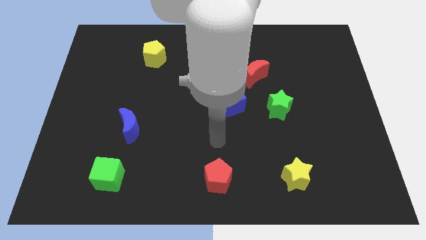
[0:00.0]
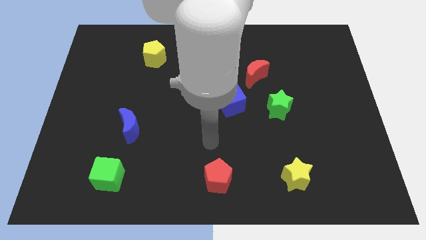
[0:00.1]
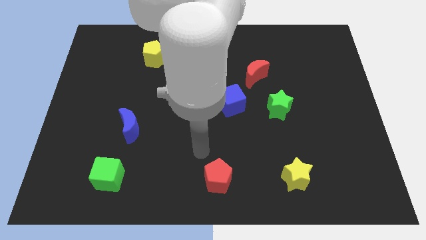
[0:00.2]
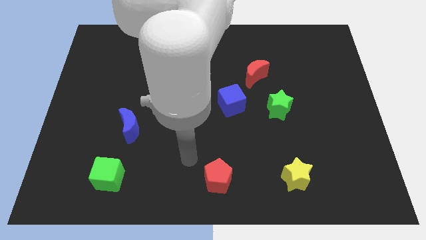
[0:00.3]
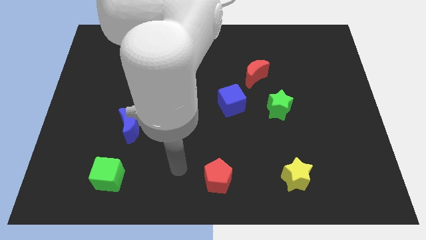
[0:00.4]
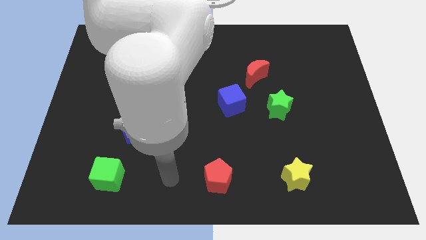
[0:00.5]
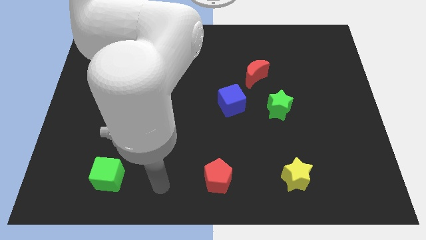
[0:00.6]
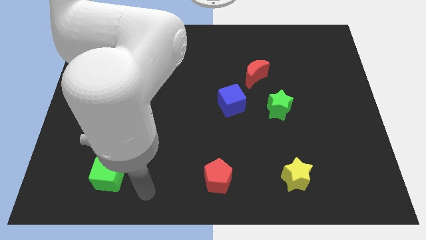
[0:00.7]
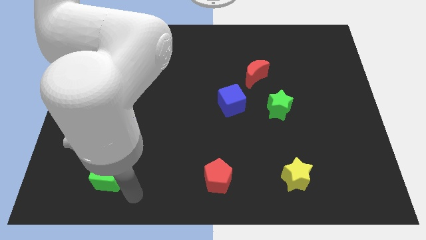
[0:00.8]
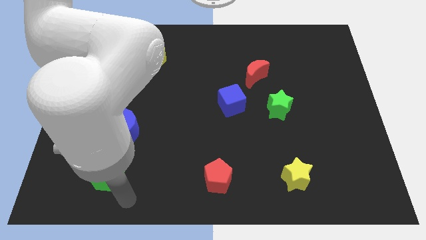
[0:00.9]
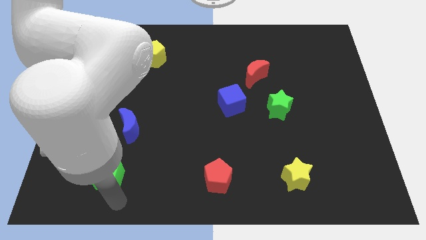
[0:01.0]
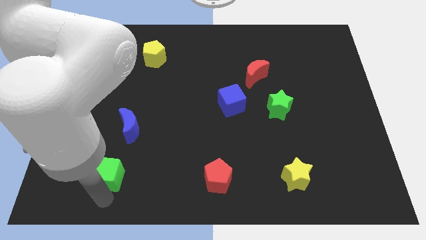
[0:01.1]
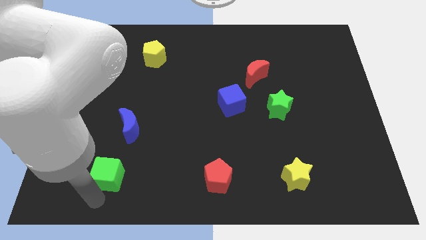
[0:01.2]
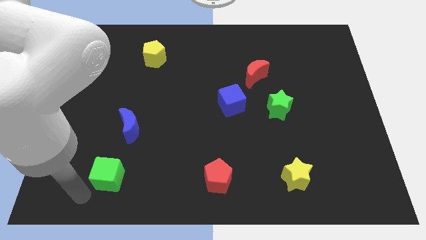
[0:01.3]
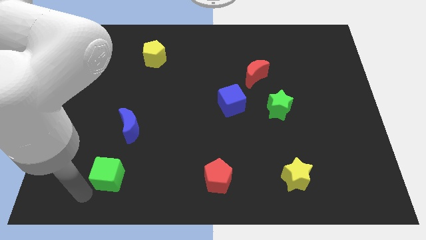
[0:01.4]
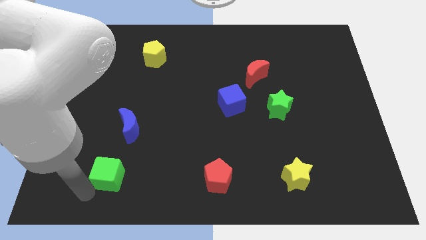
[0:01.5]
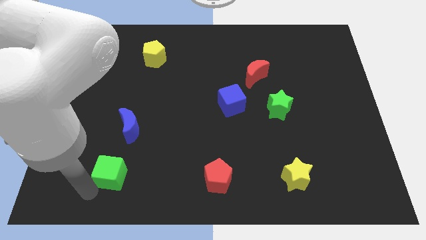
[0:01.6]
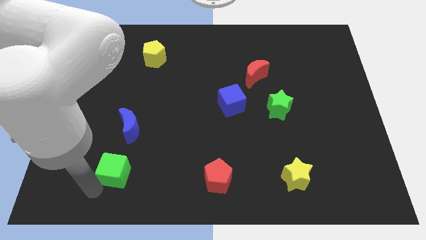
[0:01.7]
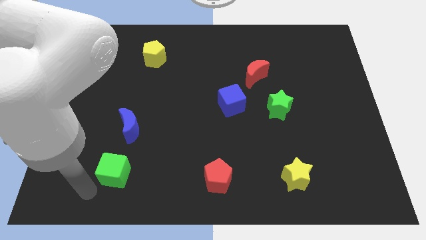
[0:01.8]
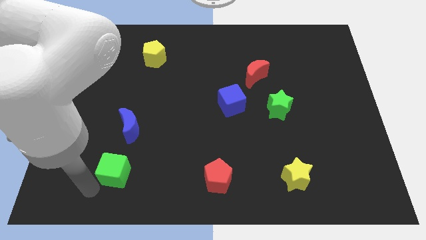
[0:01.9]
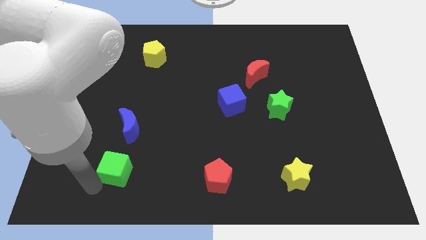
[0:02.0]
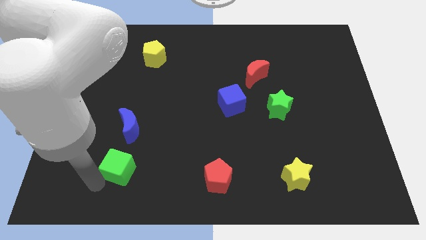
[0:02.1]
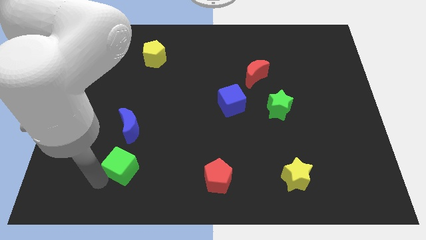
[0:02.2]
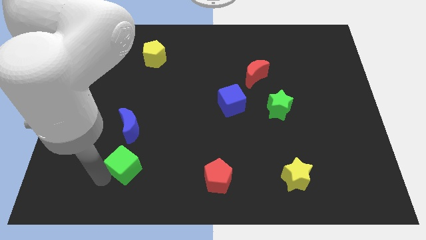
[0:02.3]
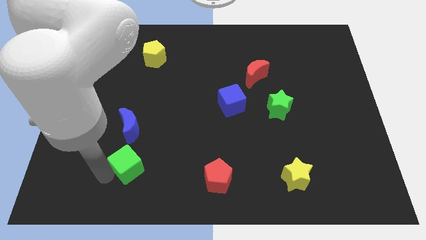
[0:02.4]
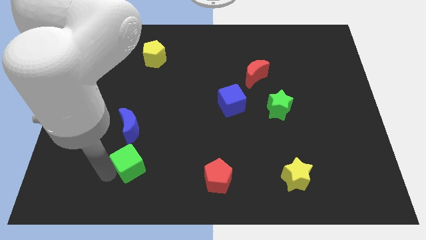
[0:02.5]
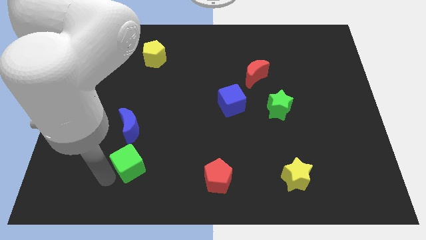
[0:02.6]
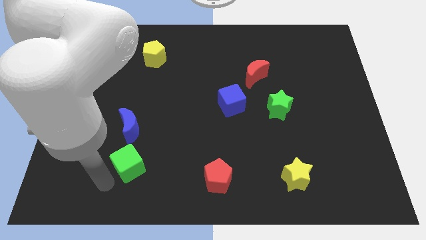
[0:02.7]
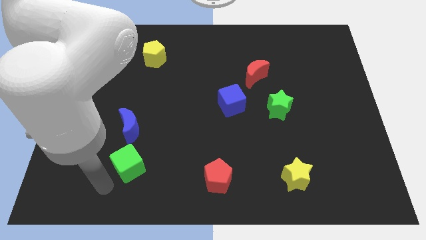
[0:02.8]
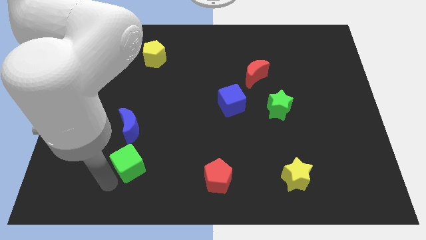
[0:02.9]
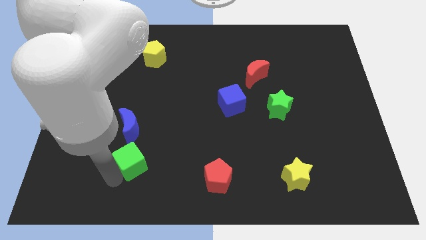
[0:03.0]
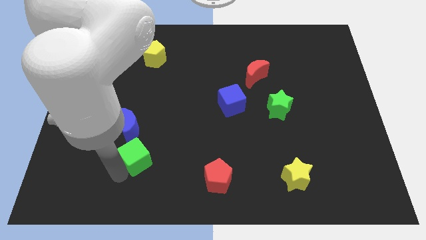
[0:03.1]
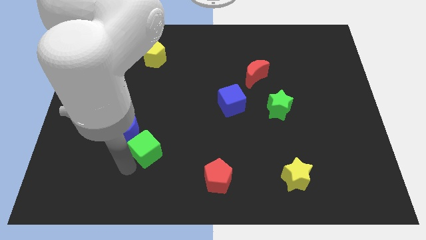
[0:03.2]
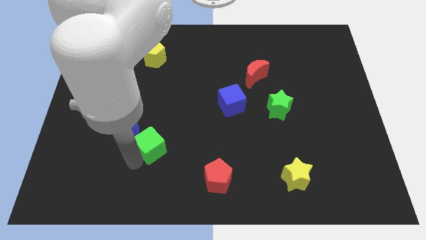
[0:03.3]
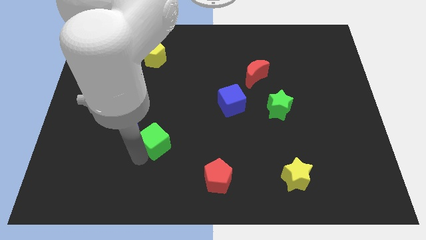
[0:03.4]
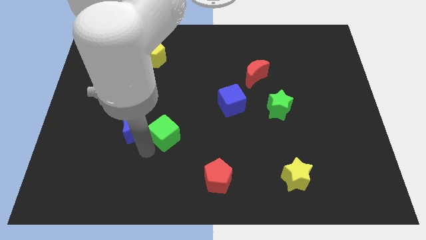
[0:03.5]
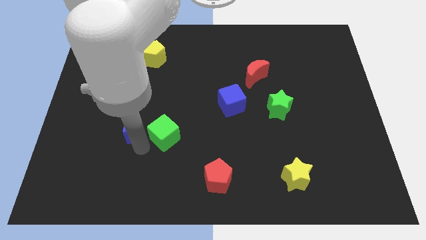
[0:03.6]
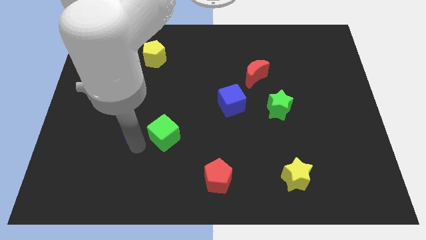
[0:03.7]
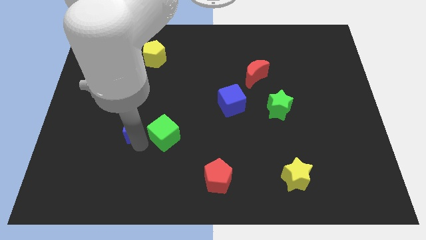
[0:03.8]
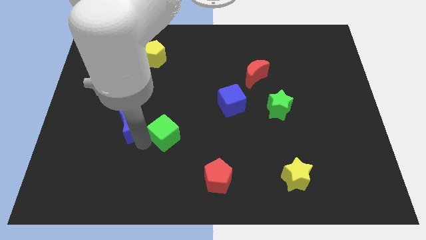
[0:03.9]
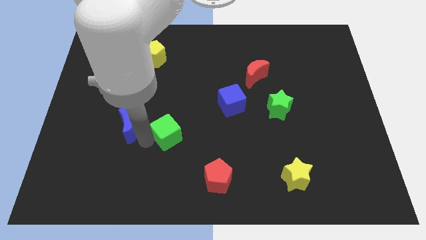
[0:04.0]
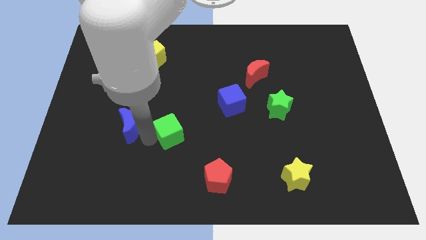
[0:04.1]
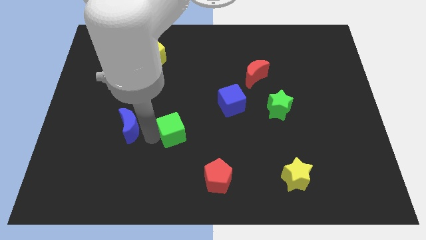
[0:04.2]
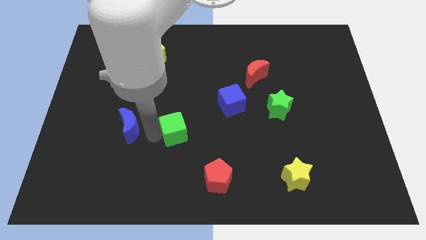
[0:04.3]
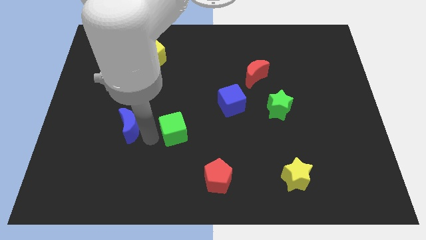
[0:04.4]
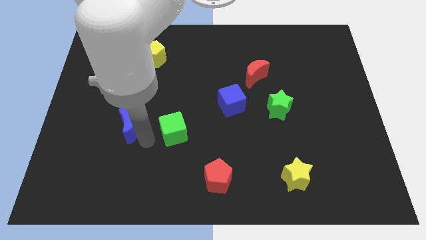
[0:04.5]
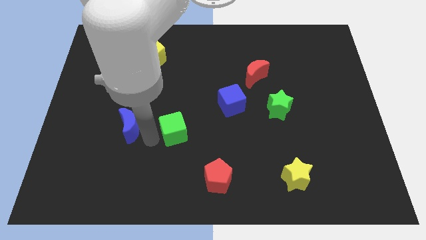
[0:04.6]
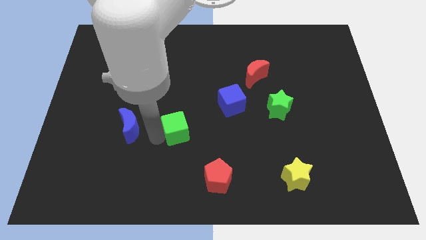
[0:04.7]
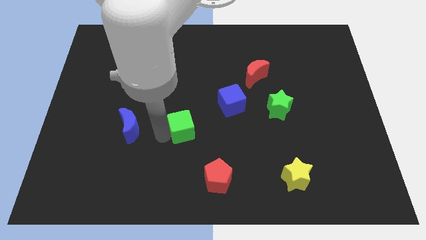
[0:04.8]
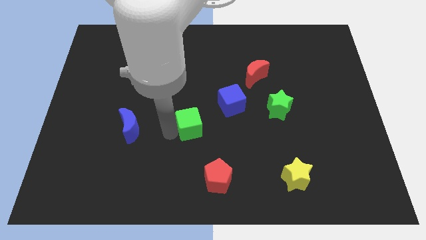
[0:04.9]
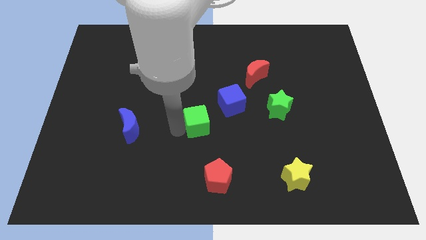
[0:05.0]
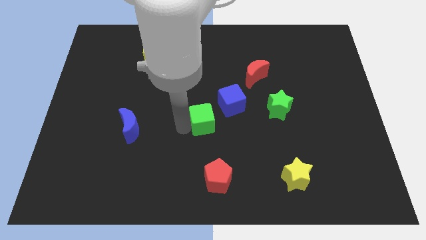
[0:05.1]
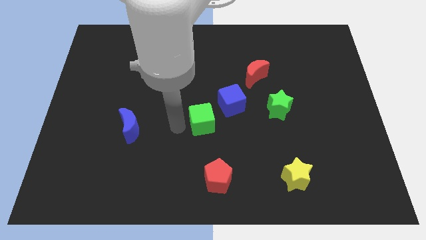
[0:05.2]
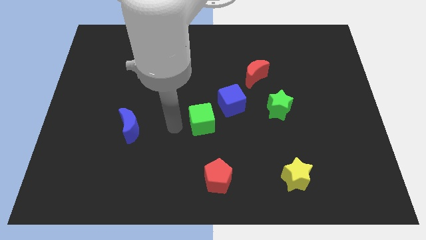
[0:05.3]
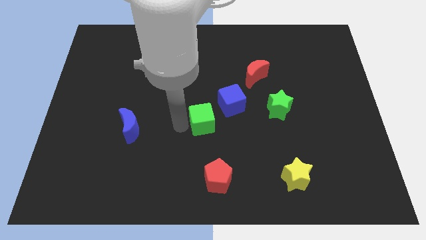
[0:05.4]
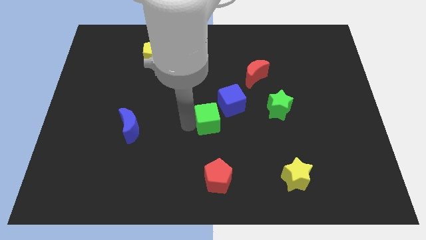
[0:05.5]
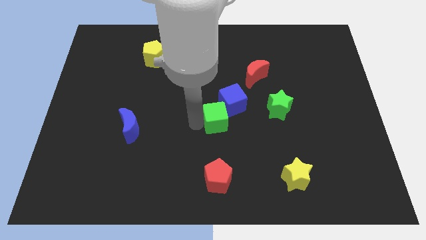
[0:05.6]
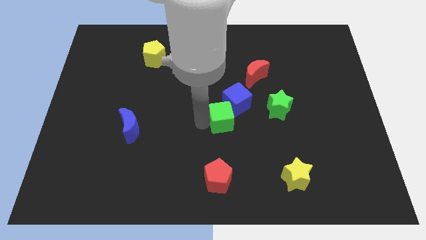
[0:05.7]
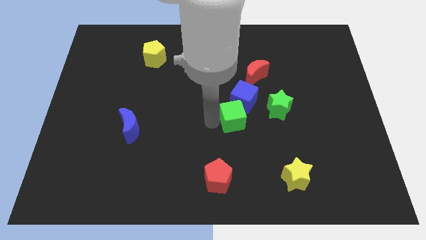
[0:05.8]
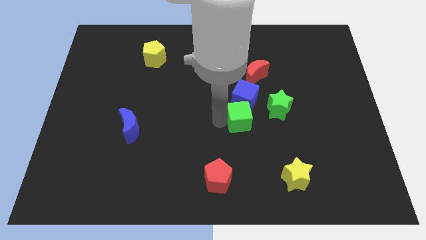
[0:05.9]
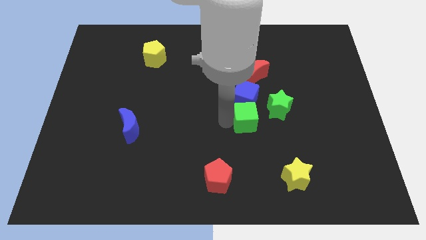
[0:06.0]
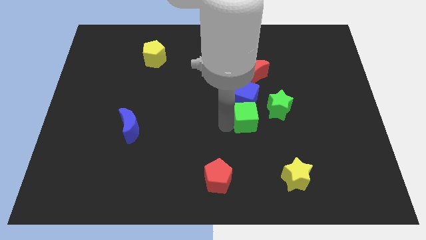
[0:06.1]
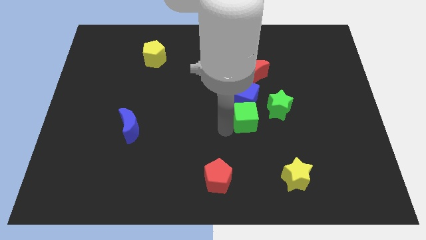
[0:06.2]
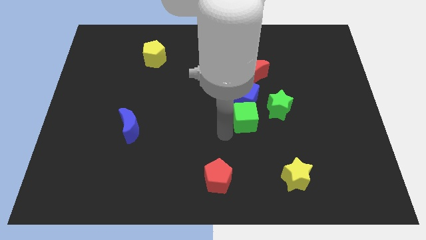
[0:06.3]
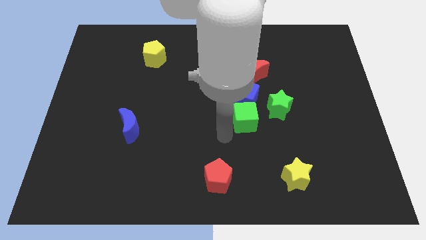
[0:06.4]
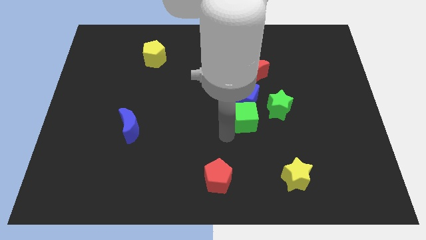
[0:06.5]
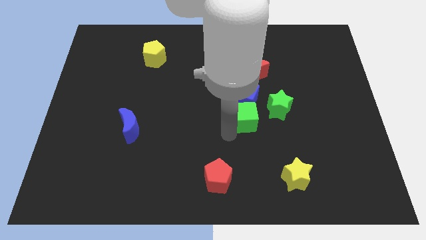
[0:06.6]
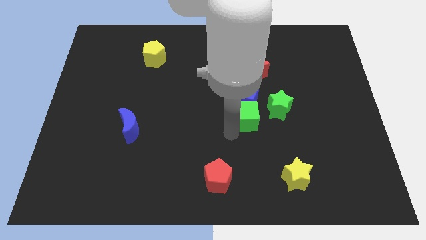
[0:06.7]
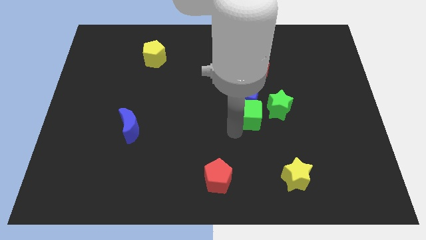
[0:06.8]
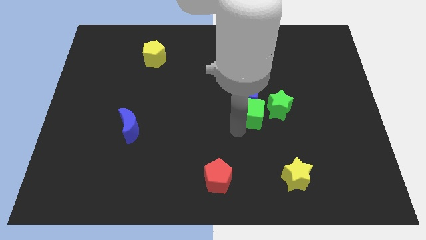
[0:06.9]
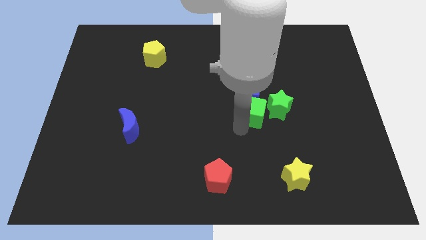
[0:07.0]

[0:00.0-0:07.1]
put the green cube close to the green star
